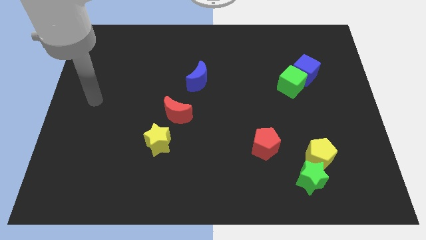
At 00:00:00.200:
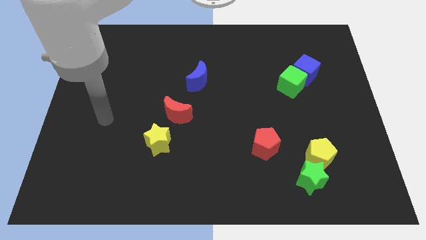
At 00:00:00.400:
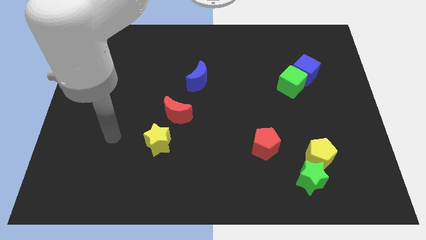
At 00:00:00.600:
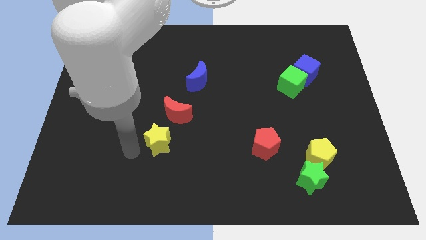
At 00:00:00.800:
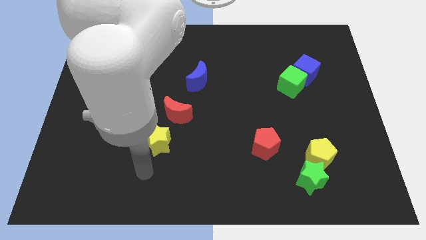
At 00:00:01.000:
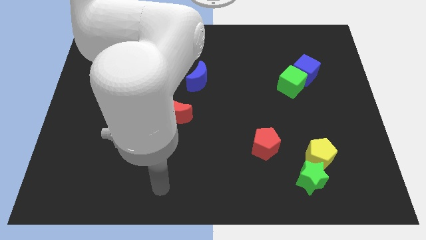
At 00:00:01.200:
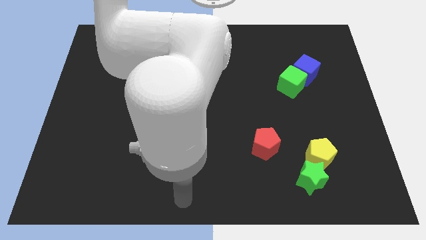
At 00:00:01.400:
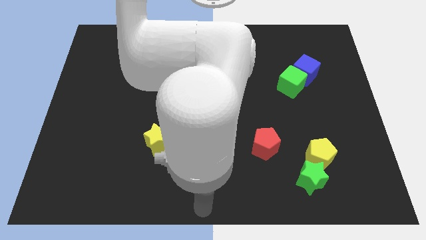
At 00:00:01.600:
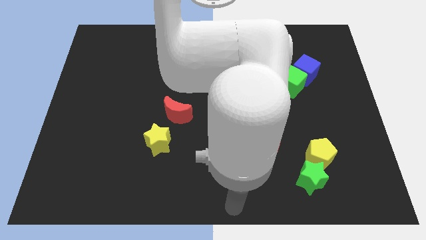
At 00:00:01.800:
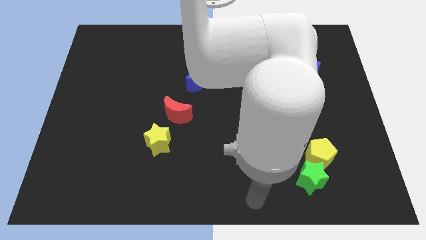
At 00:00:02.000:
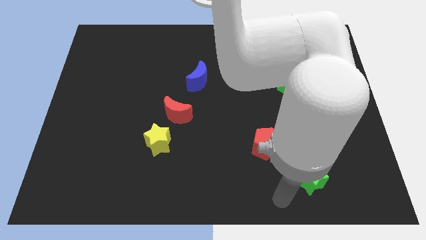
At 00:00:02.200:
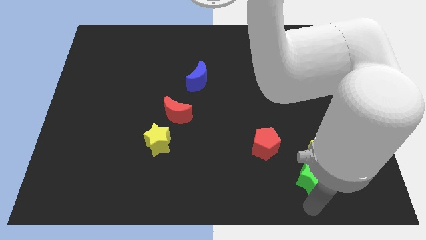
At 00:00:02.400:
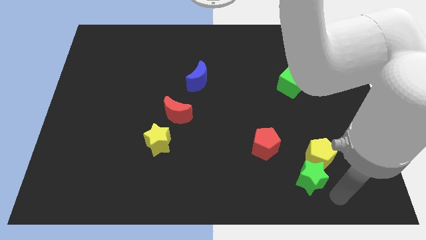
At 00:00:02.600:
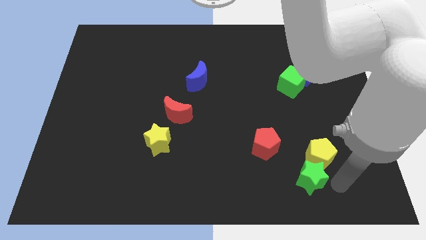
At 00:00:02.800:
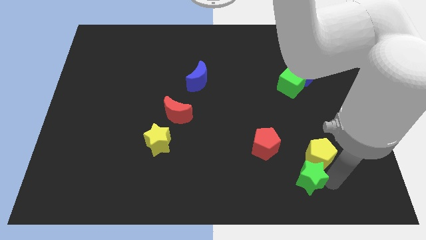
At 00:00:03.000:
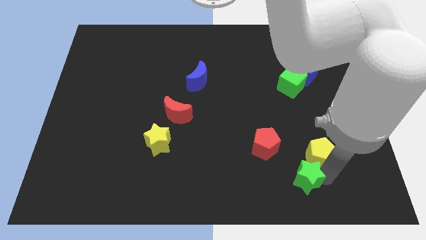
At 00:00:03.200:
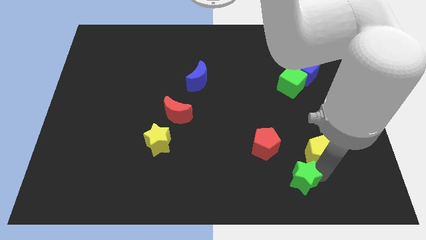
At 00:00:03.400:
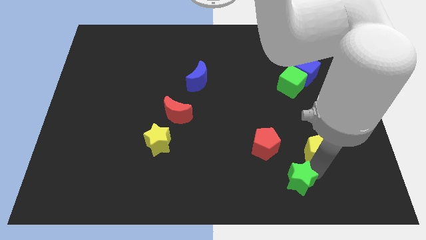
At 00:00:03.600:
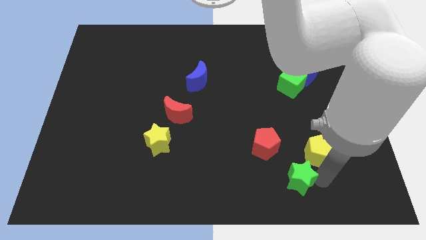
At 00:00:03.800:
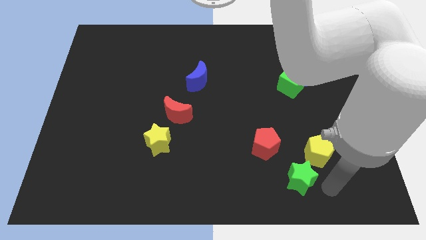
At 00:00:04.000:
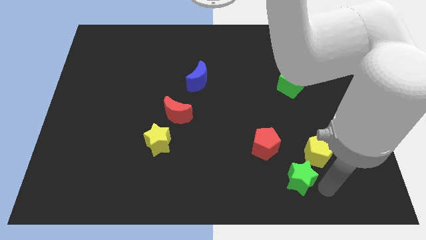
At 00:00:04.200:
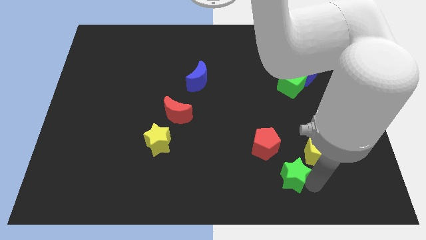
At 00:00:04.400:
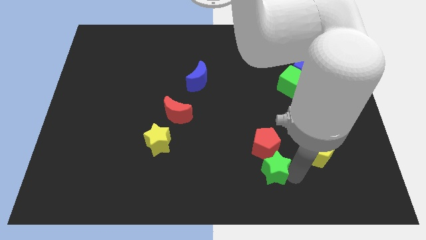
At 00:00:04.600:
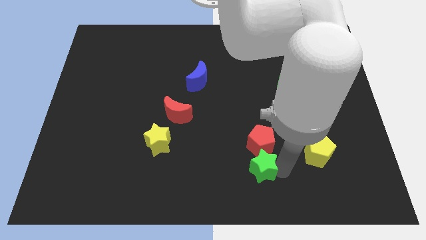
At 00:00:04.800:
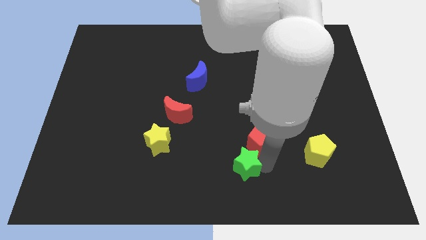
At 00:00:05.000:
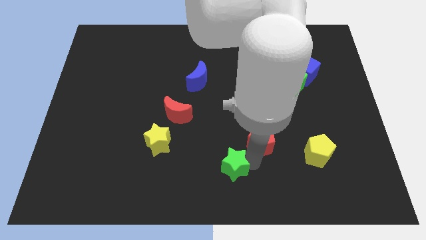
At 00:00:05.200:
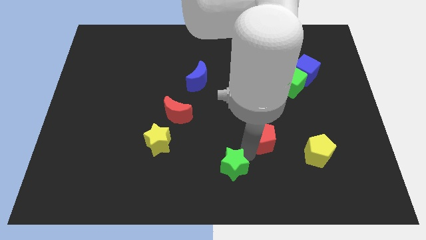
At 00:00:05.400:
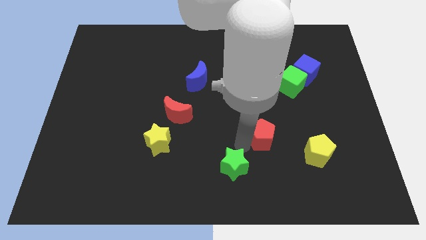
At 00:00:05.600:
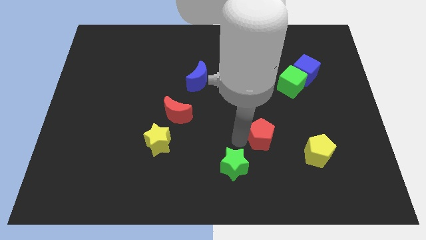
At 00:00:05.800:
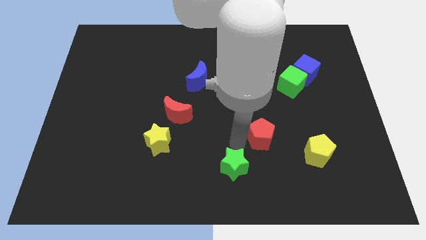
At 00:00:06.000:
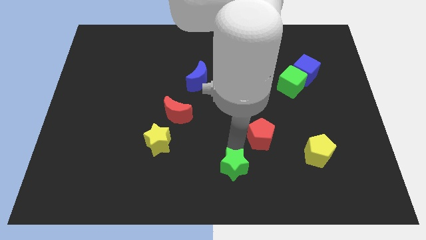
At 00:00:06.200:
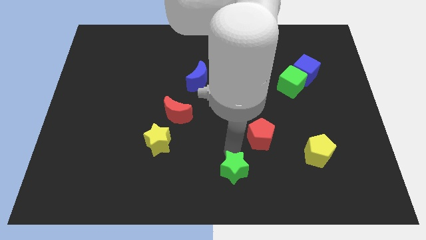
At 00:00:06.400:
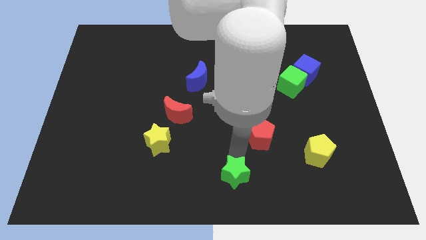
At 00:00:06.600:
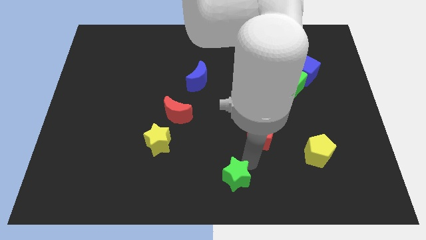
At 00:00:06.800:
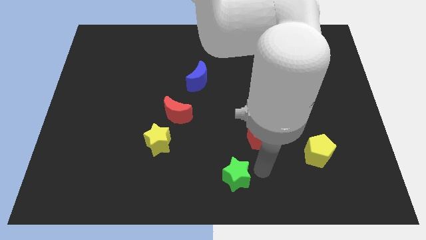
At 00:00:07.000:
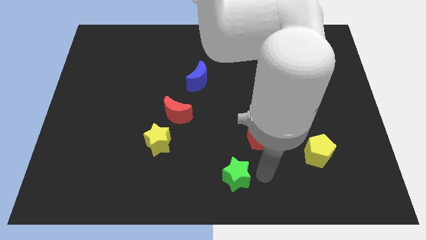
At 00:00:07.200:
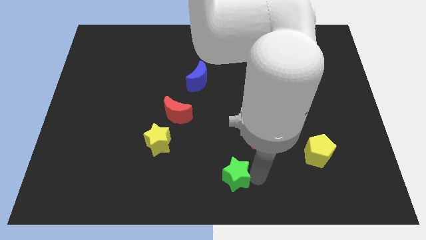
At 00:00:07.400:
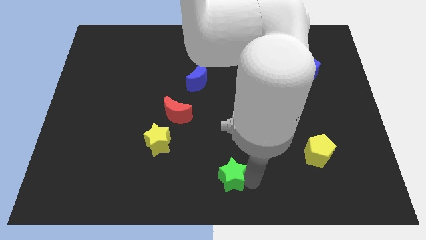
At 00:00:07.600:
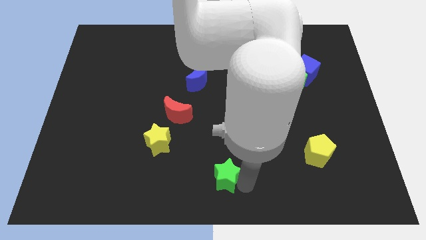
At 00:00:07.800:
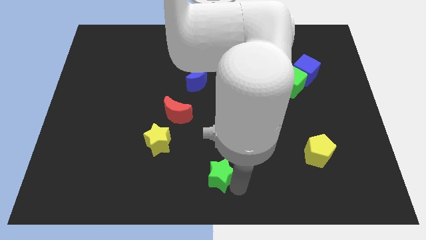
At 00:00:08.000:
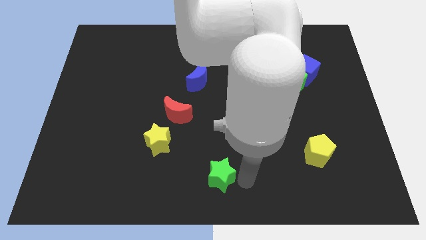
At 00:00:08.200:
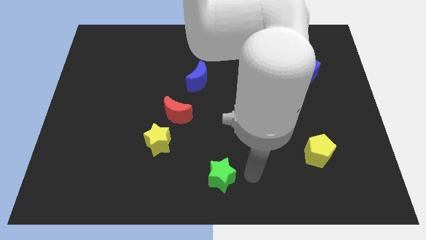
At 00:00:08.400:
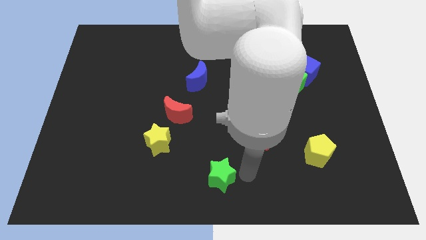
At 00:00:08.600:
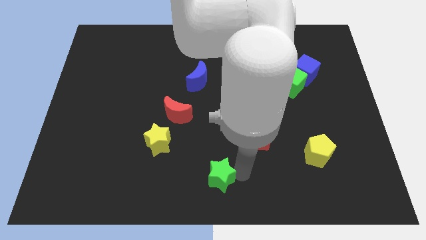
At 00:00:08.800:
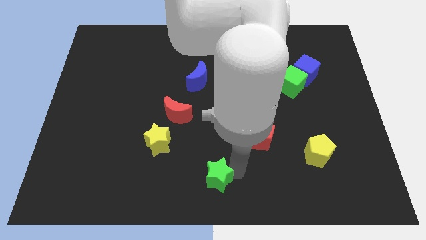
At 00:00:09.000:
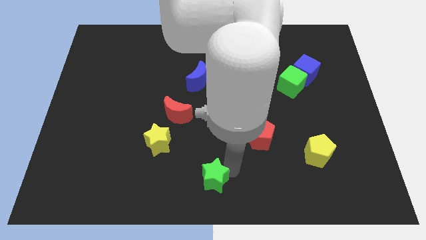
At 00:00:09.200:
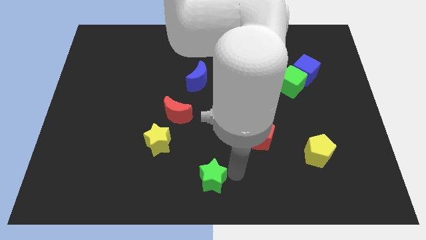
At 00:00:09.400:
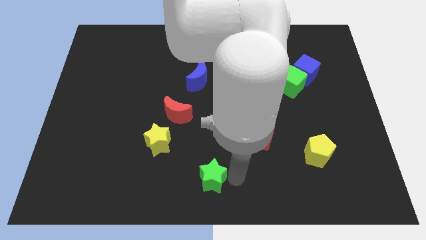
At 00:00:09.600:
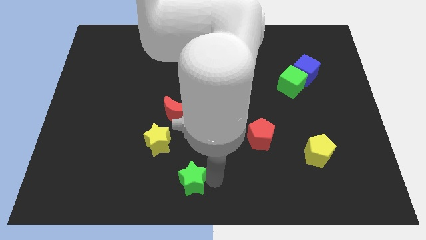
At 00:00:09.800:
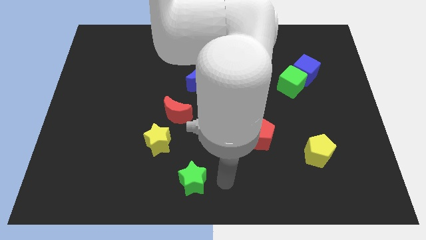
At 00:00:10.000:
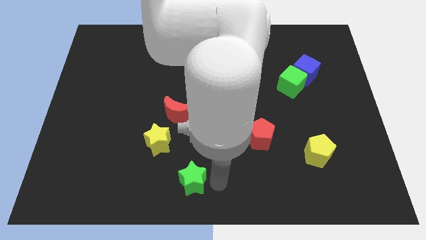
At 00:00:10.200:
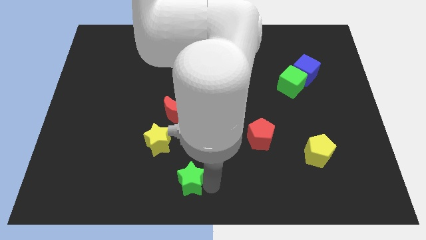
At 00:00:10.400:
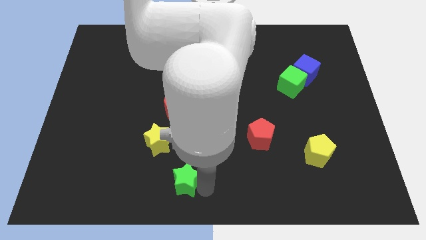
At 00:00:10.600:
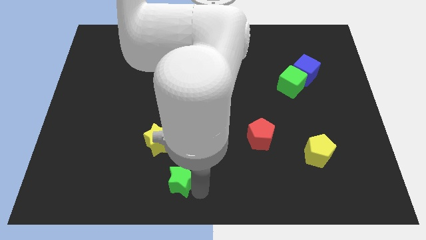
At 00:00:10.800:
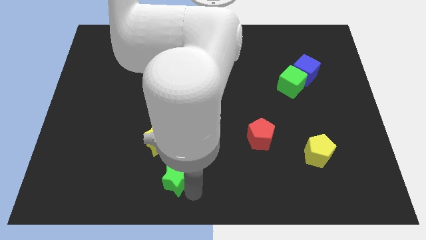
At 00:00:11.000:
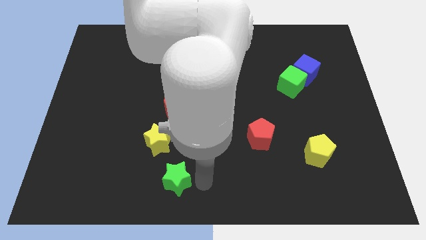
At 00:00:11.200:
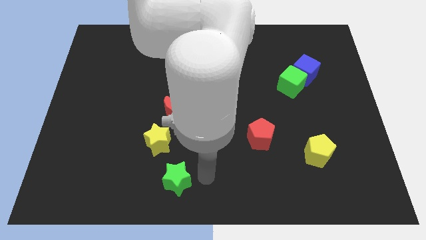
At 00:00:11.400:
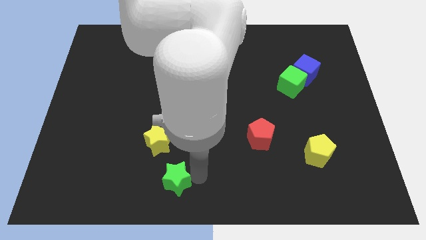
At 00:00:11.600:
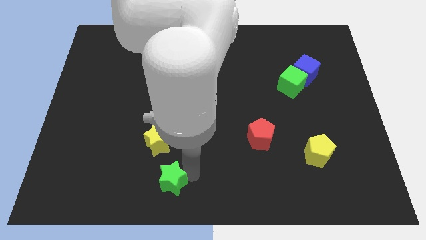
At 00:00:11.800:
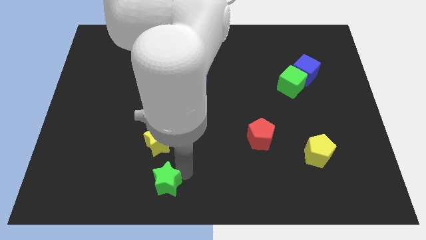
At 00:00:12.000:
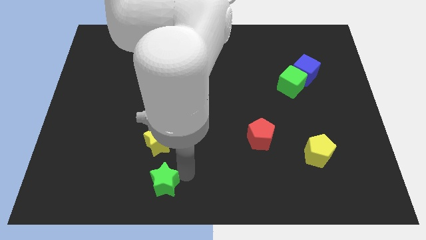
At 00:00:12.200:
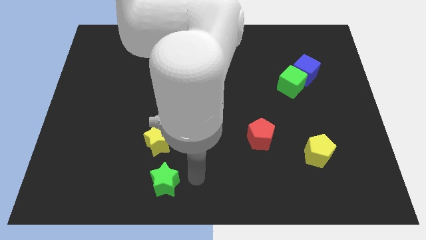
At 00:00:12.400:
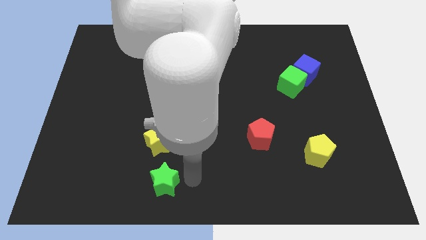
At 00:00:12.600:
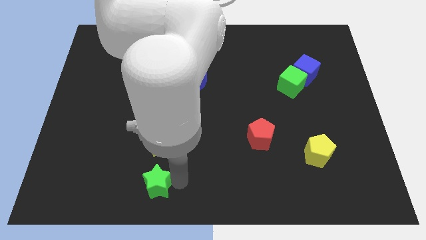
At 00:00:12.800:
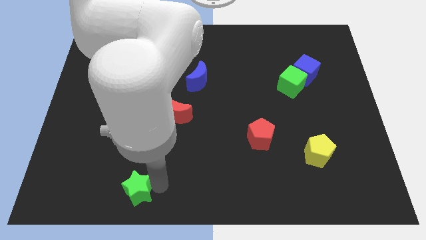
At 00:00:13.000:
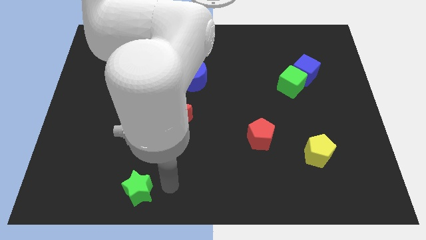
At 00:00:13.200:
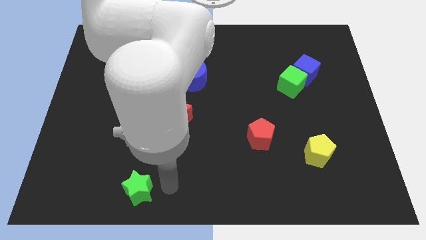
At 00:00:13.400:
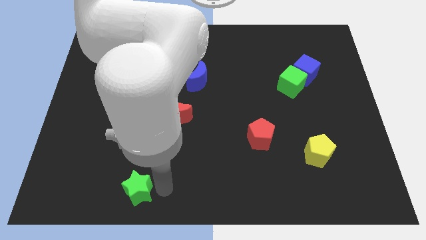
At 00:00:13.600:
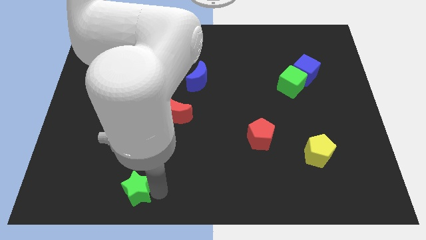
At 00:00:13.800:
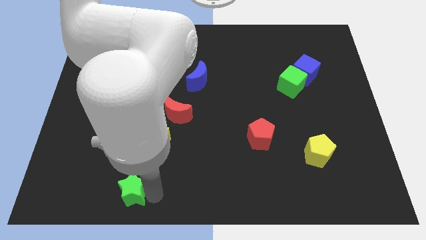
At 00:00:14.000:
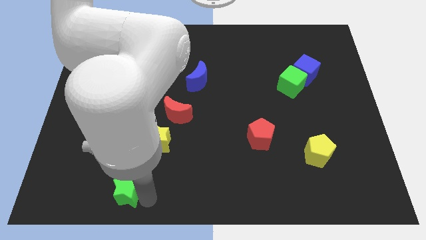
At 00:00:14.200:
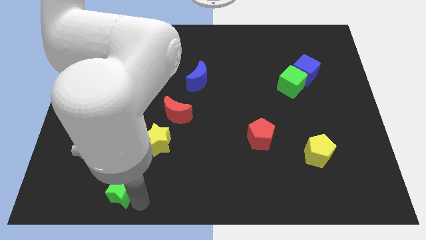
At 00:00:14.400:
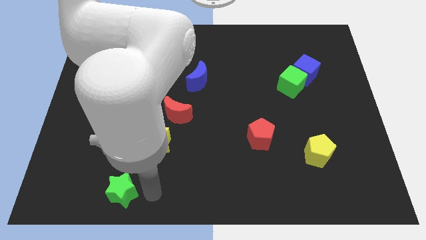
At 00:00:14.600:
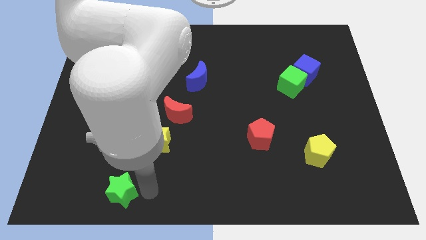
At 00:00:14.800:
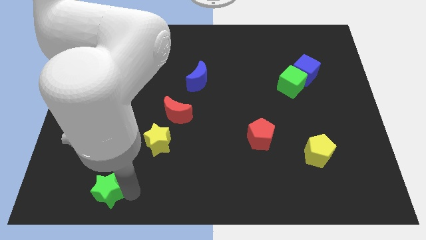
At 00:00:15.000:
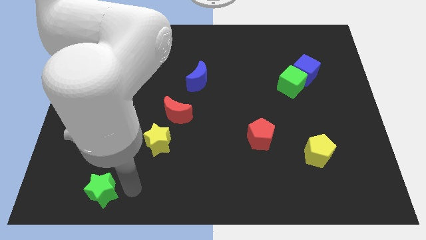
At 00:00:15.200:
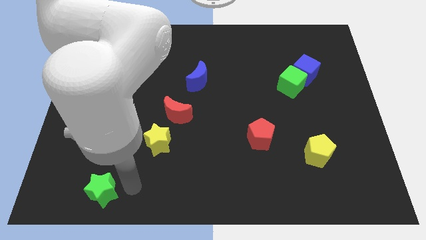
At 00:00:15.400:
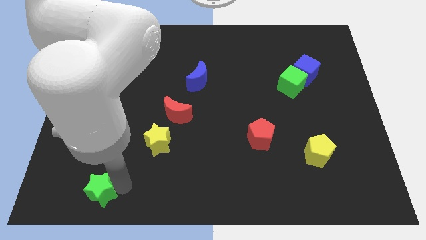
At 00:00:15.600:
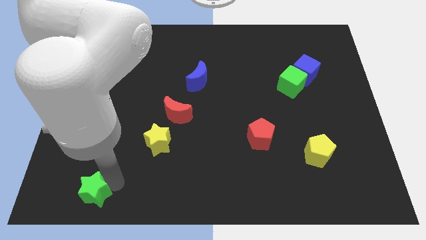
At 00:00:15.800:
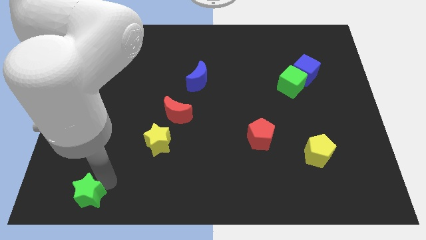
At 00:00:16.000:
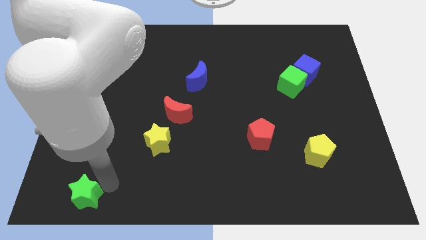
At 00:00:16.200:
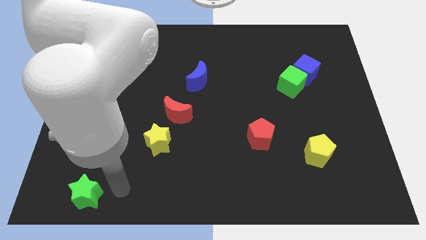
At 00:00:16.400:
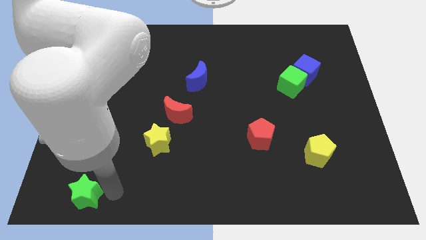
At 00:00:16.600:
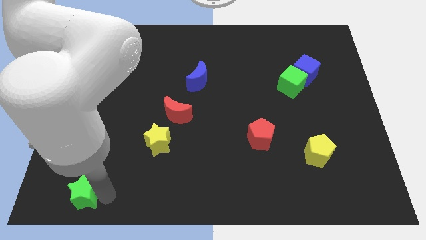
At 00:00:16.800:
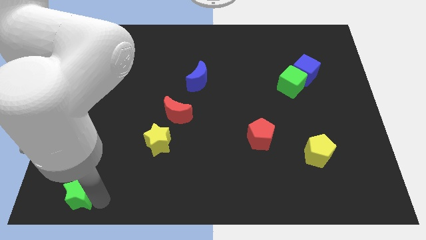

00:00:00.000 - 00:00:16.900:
push the green star to the lower left corner
